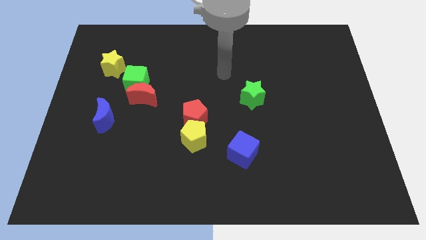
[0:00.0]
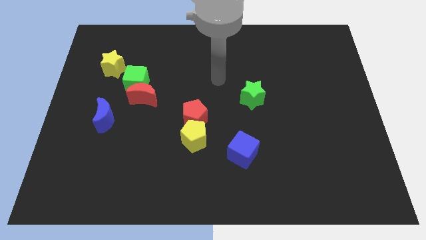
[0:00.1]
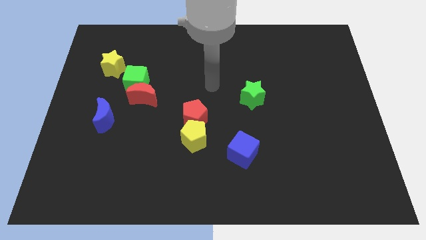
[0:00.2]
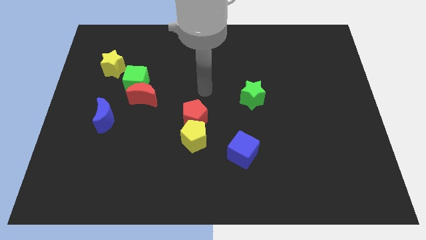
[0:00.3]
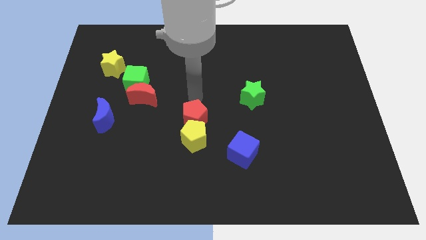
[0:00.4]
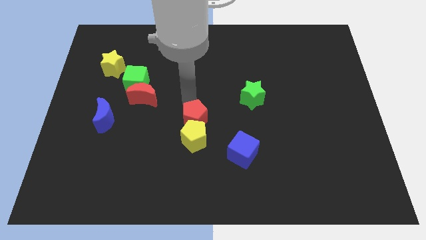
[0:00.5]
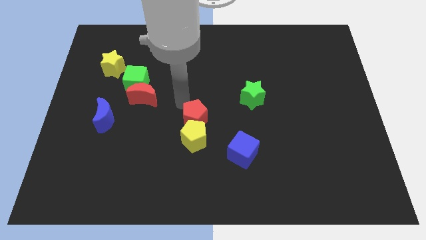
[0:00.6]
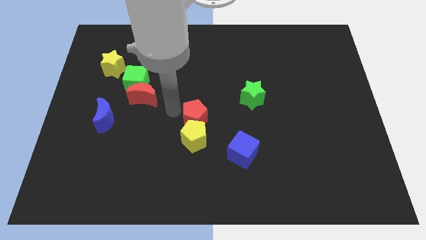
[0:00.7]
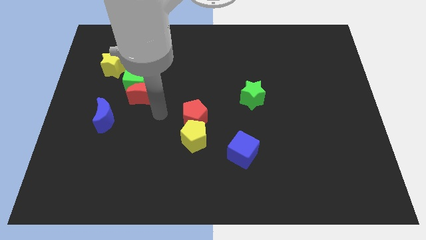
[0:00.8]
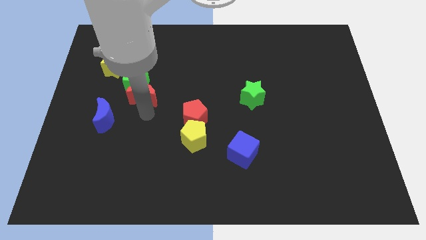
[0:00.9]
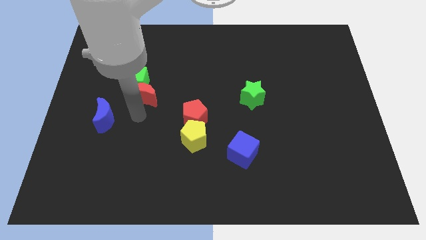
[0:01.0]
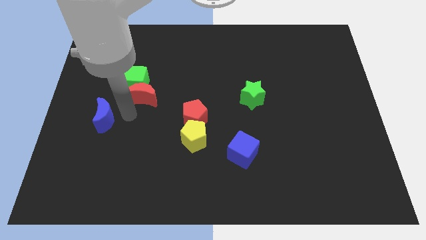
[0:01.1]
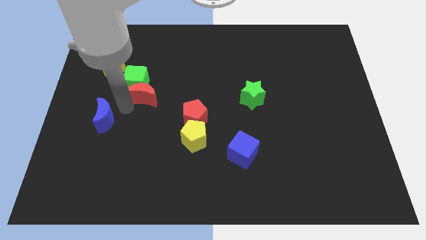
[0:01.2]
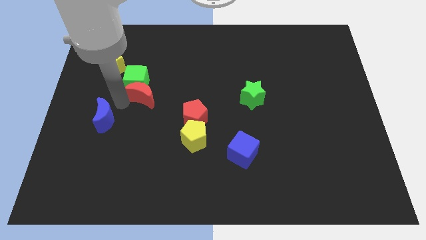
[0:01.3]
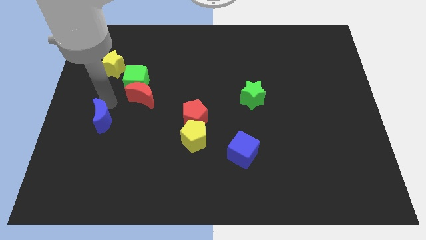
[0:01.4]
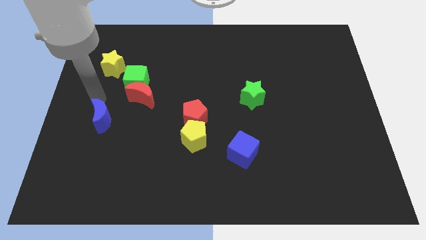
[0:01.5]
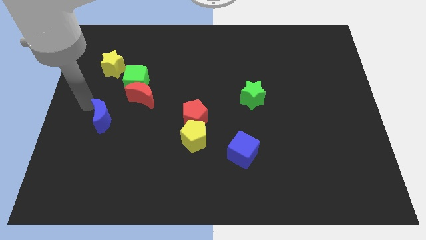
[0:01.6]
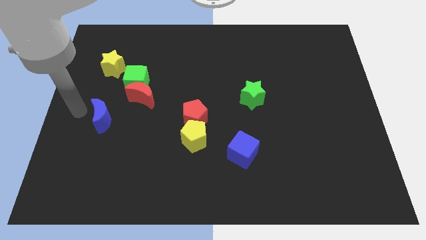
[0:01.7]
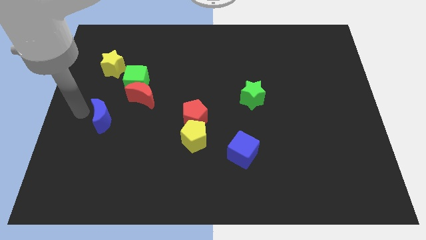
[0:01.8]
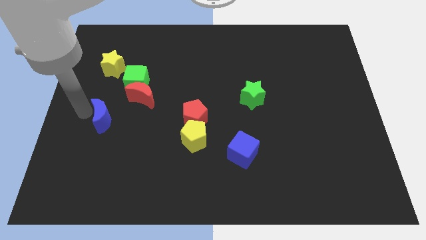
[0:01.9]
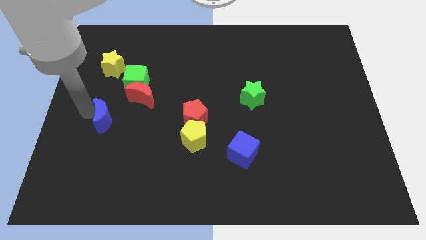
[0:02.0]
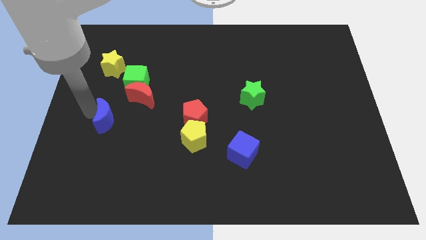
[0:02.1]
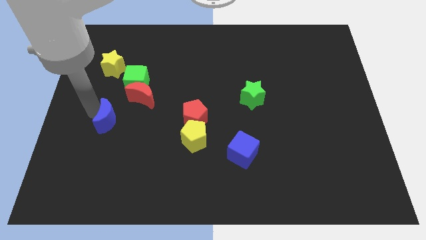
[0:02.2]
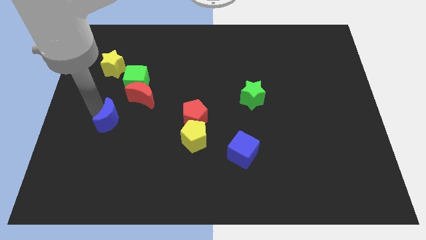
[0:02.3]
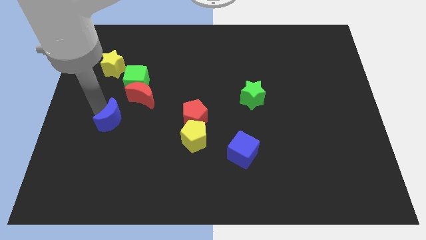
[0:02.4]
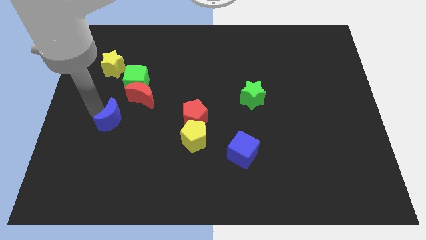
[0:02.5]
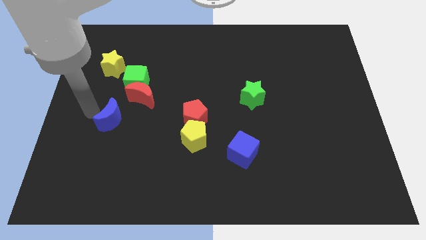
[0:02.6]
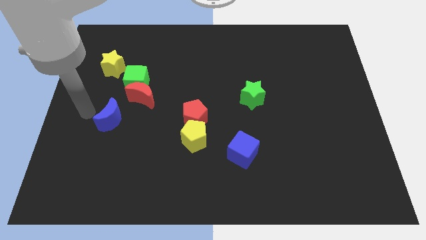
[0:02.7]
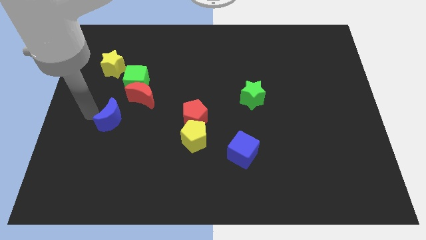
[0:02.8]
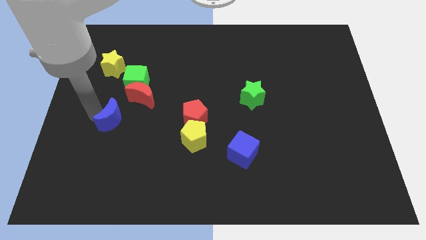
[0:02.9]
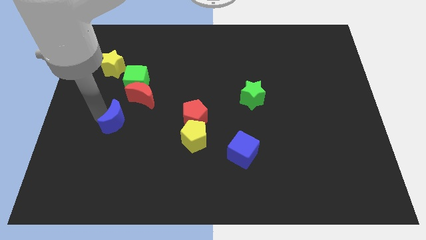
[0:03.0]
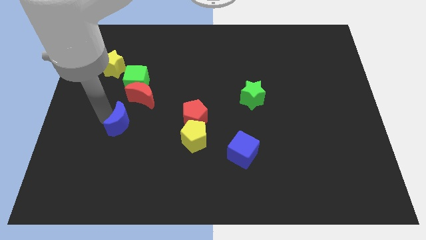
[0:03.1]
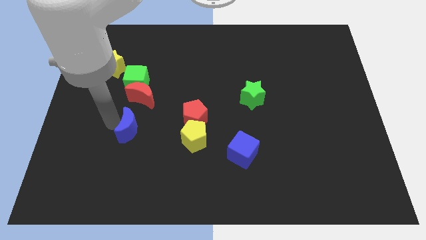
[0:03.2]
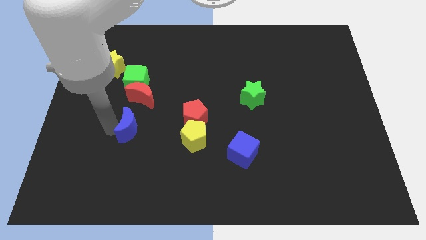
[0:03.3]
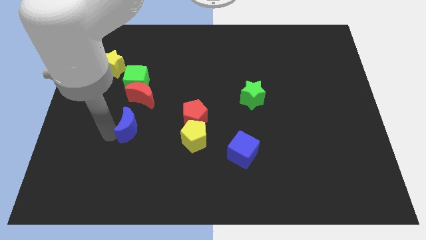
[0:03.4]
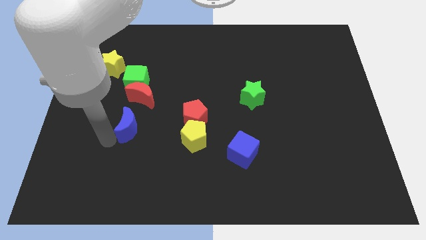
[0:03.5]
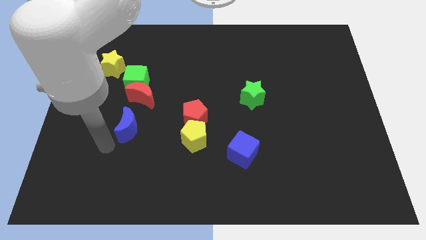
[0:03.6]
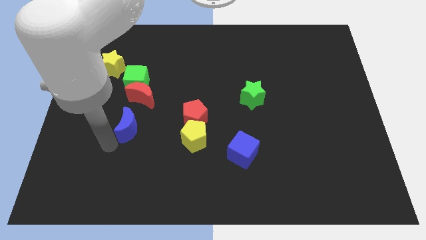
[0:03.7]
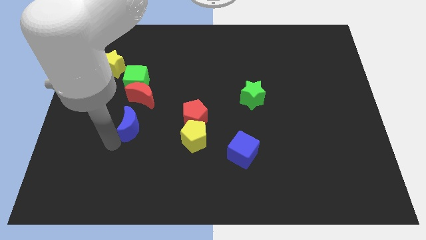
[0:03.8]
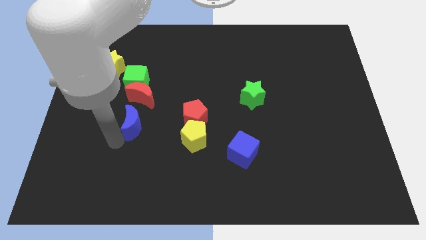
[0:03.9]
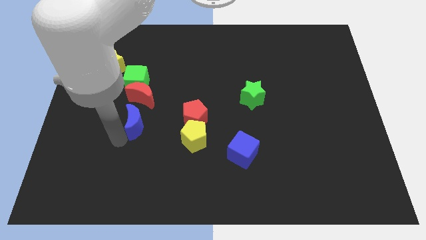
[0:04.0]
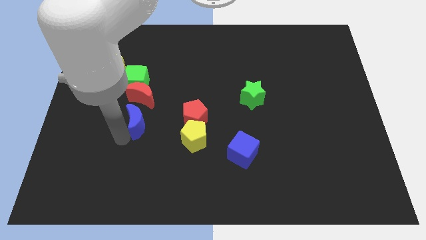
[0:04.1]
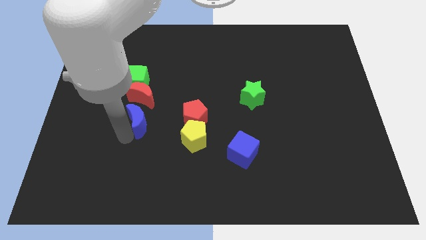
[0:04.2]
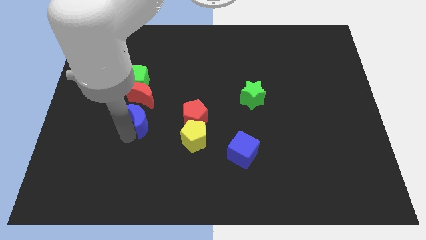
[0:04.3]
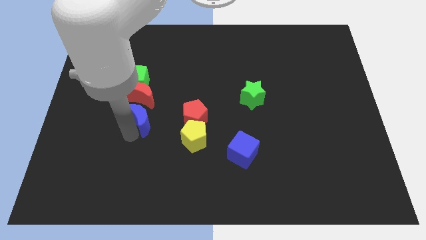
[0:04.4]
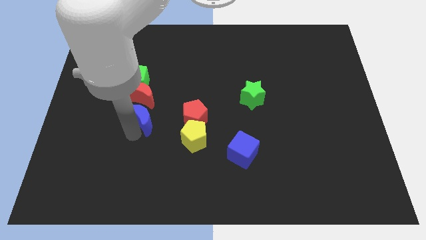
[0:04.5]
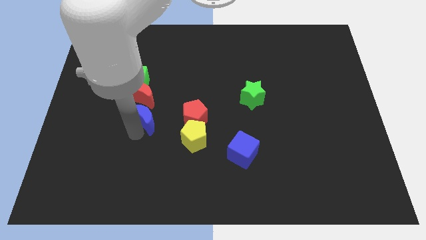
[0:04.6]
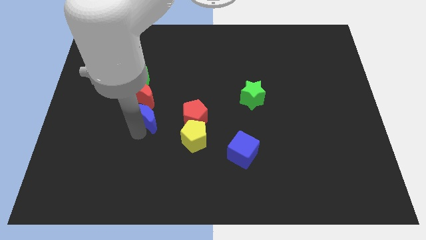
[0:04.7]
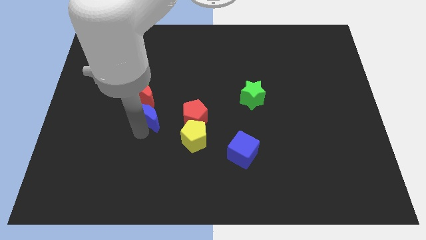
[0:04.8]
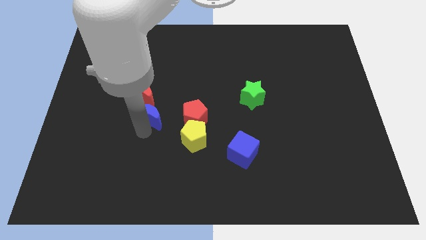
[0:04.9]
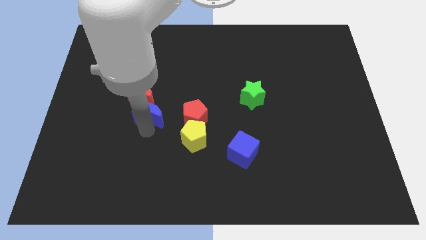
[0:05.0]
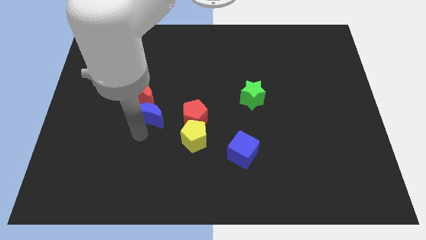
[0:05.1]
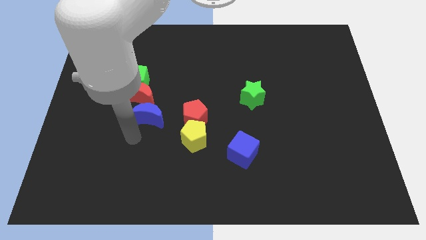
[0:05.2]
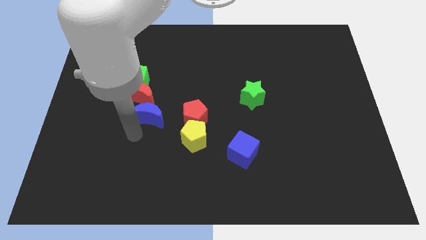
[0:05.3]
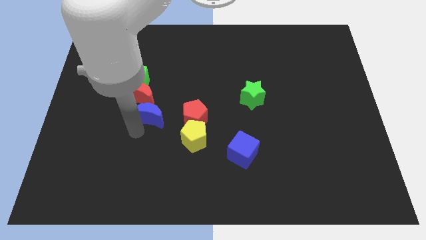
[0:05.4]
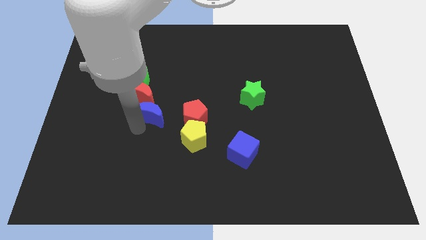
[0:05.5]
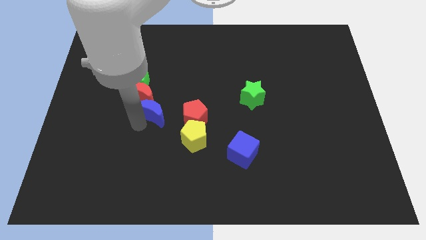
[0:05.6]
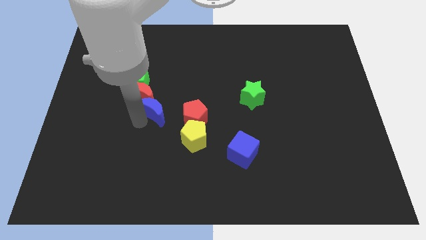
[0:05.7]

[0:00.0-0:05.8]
move the blue moon upwards and then to the right a little

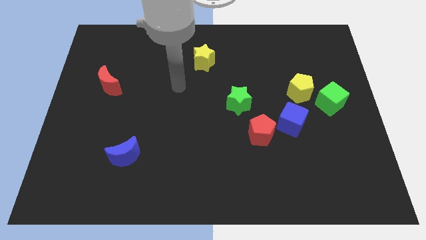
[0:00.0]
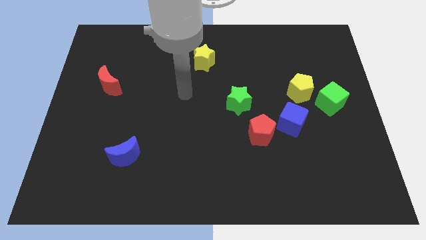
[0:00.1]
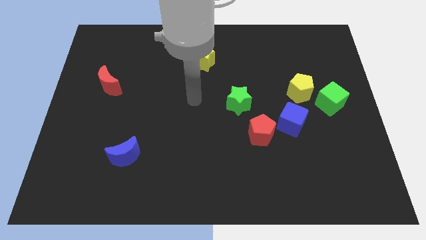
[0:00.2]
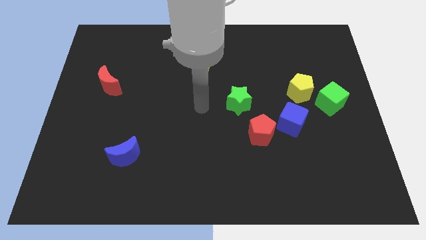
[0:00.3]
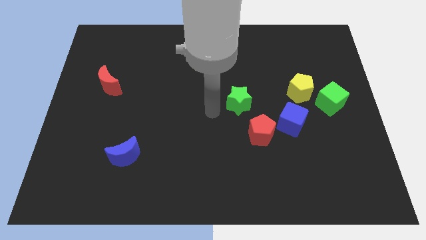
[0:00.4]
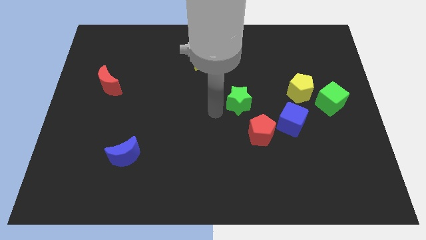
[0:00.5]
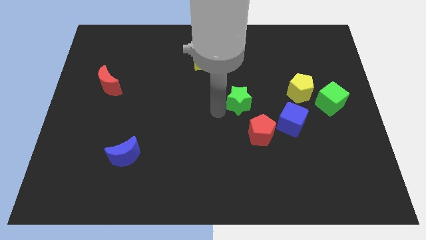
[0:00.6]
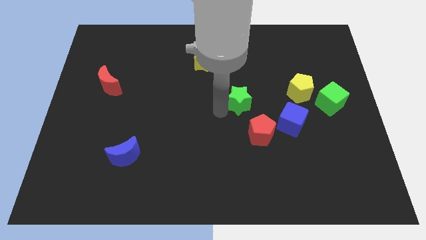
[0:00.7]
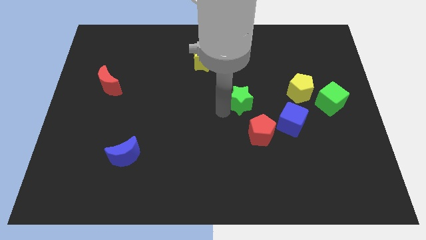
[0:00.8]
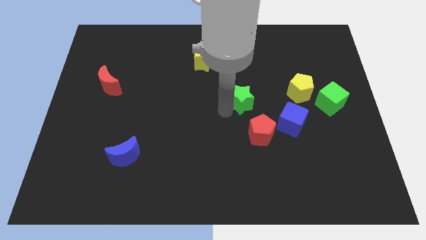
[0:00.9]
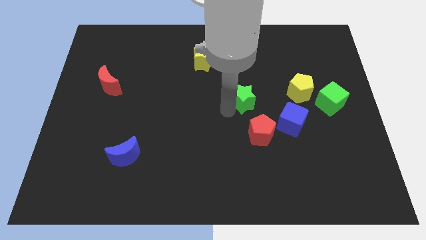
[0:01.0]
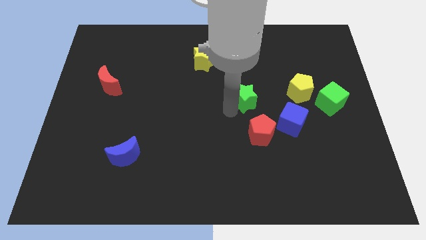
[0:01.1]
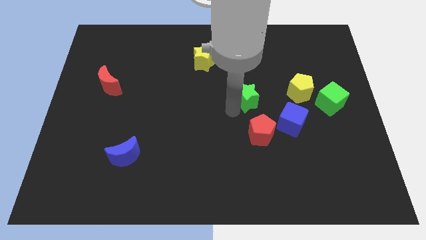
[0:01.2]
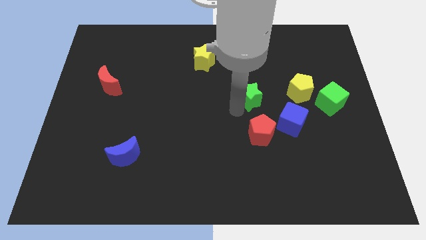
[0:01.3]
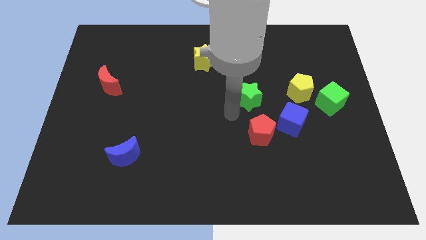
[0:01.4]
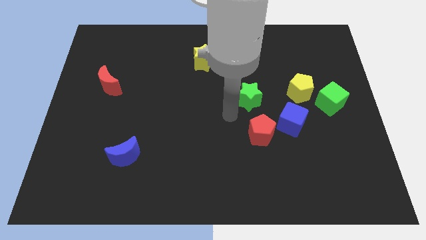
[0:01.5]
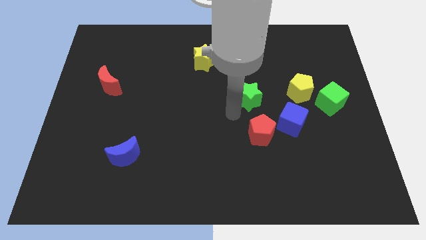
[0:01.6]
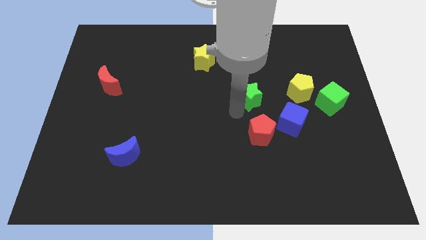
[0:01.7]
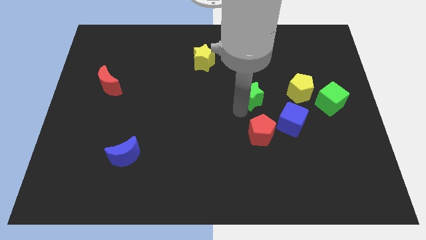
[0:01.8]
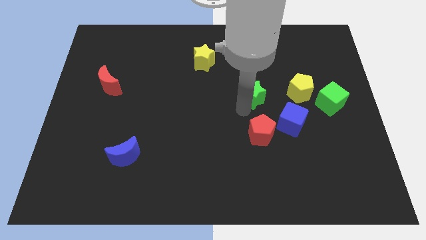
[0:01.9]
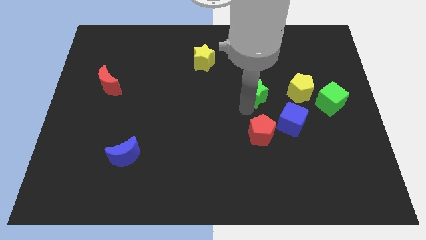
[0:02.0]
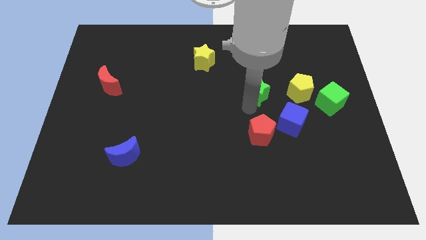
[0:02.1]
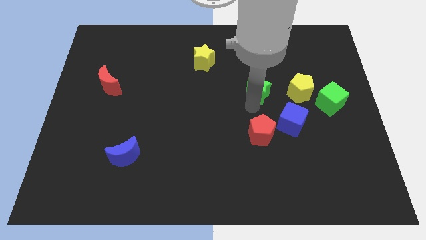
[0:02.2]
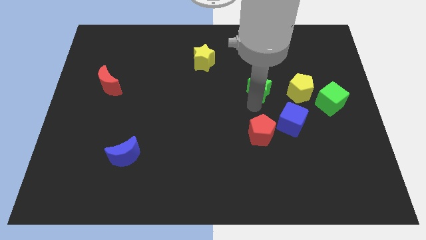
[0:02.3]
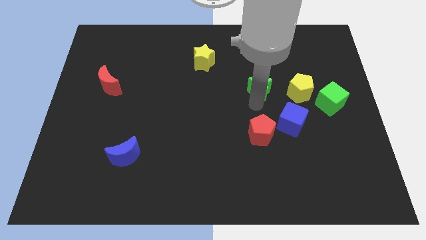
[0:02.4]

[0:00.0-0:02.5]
push the green star diagonally up and to the right slightly
